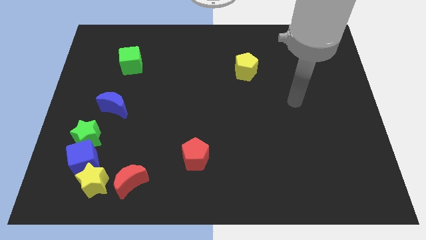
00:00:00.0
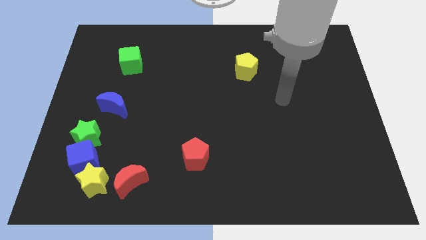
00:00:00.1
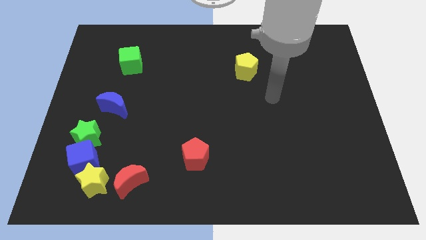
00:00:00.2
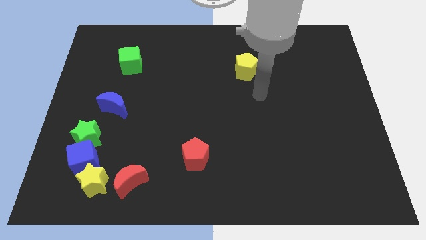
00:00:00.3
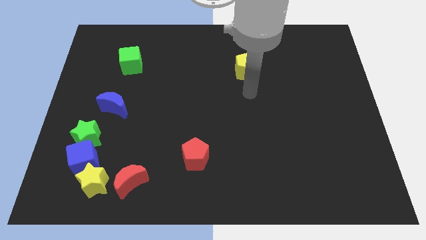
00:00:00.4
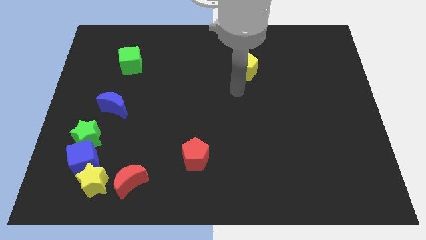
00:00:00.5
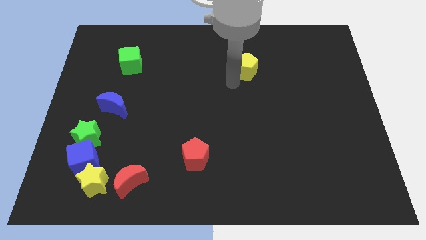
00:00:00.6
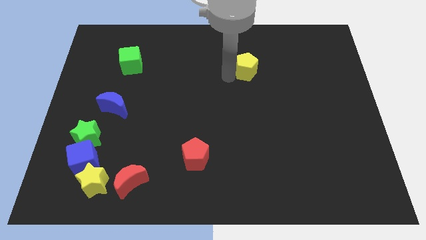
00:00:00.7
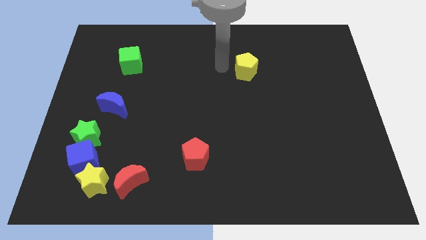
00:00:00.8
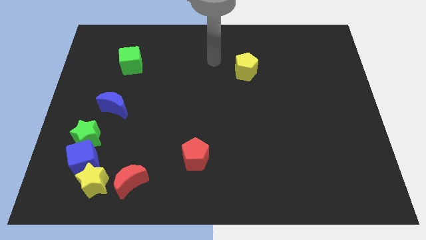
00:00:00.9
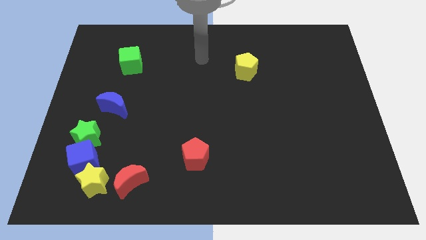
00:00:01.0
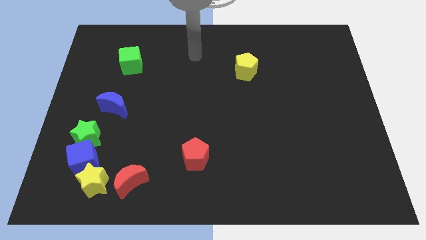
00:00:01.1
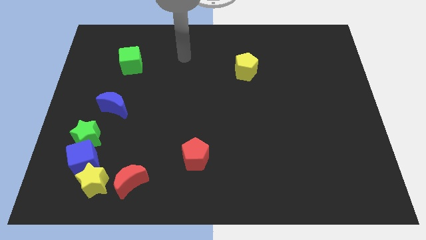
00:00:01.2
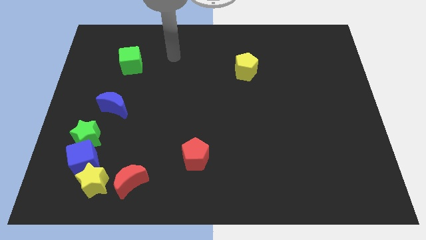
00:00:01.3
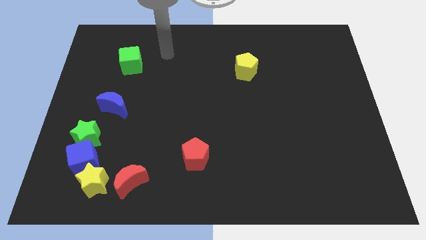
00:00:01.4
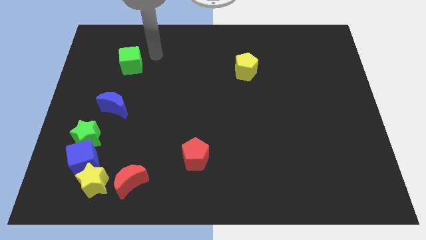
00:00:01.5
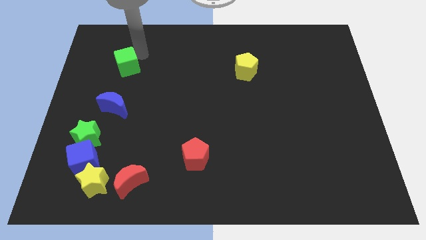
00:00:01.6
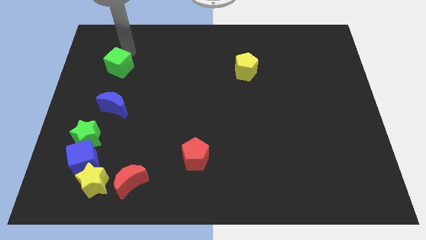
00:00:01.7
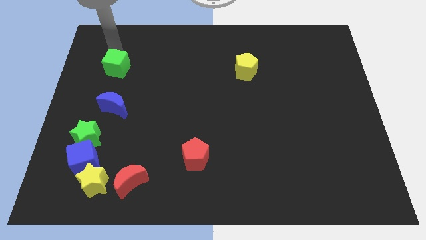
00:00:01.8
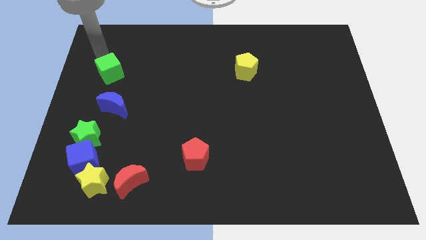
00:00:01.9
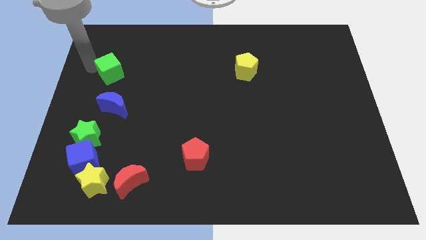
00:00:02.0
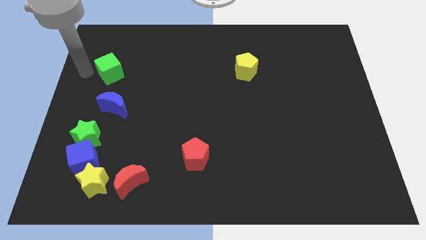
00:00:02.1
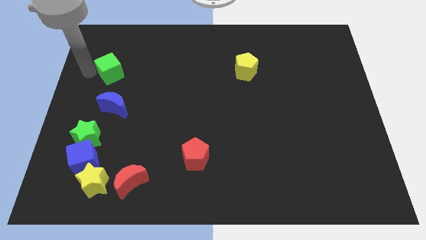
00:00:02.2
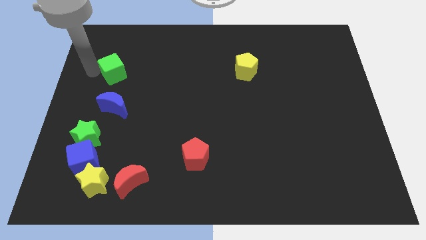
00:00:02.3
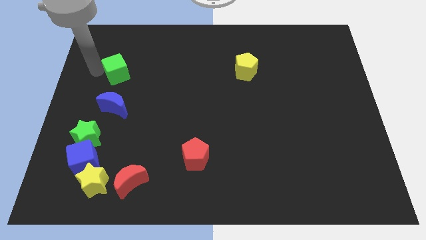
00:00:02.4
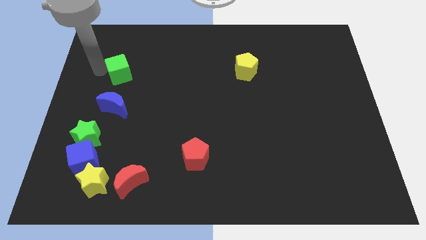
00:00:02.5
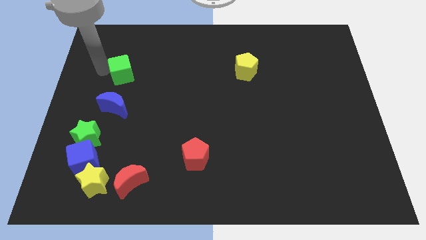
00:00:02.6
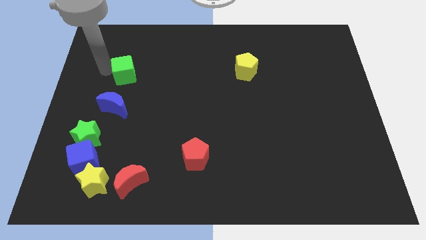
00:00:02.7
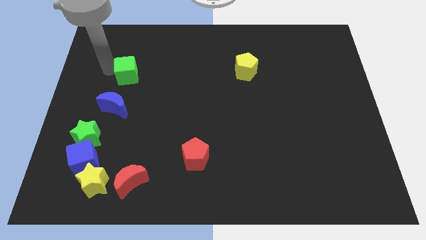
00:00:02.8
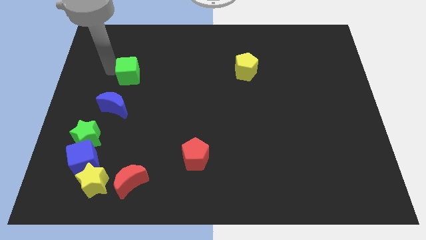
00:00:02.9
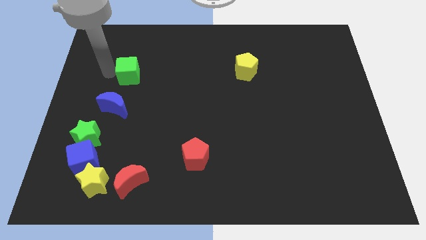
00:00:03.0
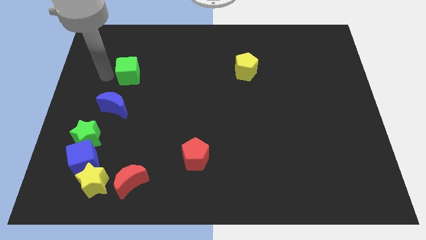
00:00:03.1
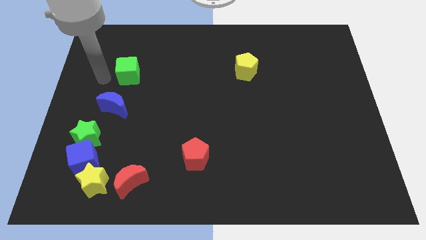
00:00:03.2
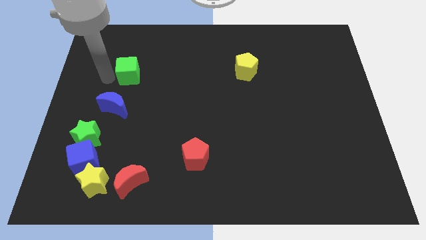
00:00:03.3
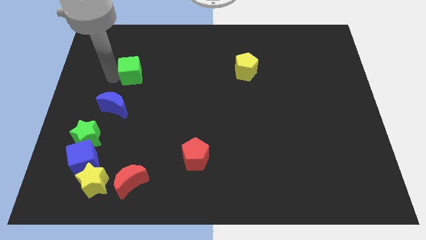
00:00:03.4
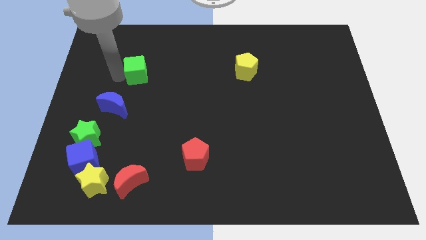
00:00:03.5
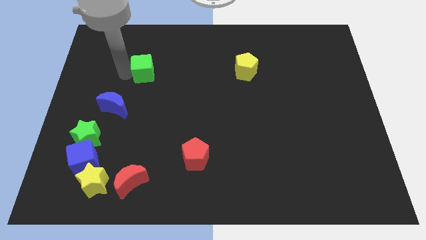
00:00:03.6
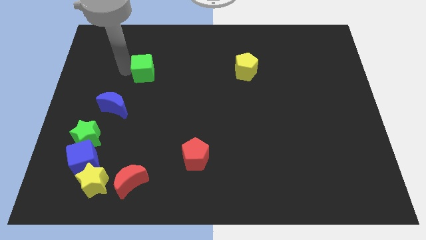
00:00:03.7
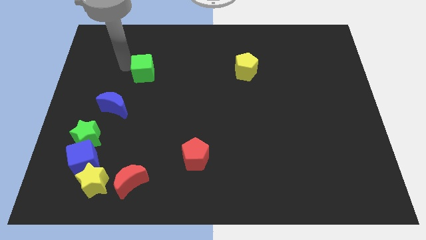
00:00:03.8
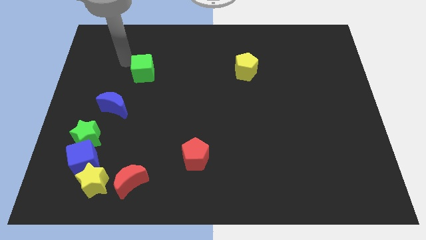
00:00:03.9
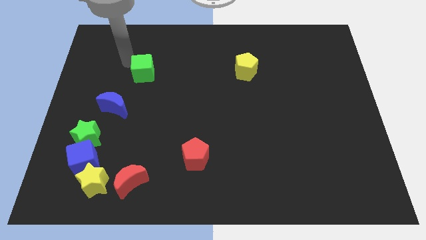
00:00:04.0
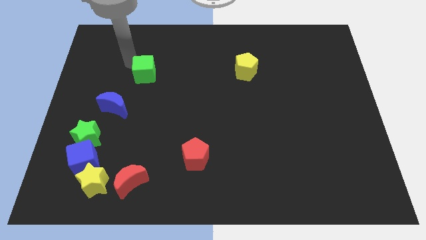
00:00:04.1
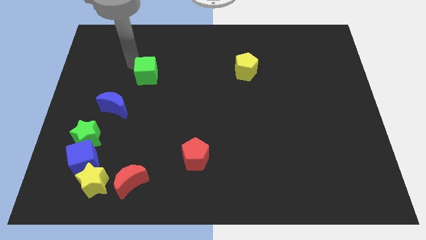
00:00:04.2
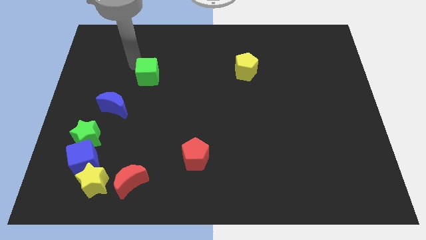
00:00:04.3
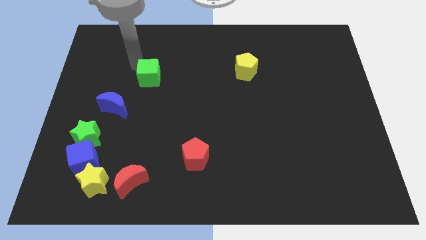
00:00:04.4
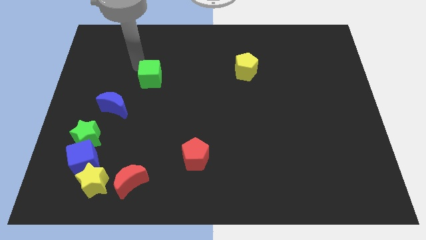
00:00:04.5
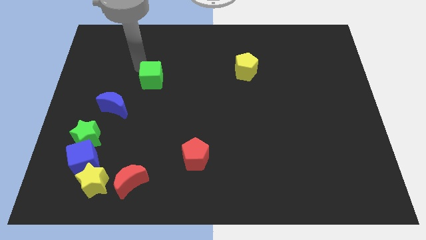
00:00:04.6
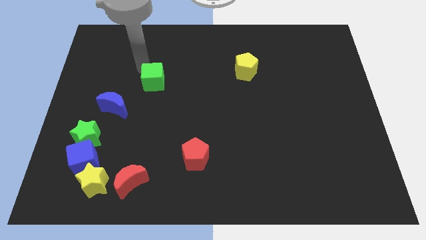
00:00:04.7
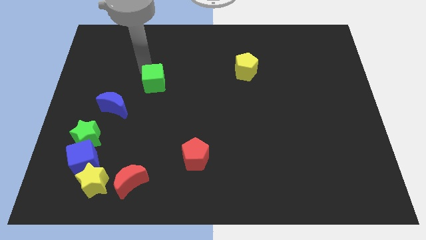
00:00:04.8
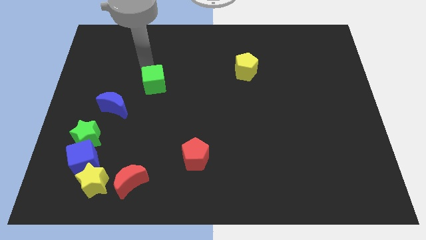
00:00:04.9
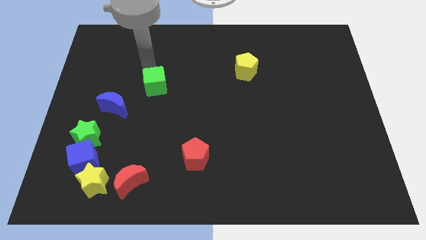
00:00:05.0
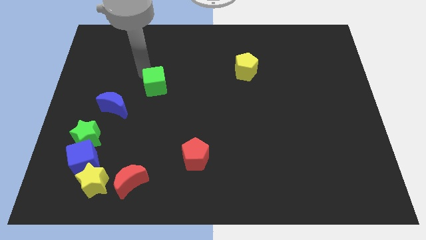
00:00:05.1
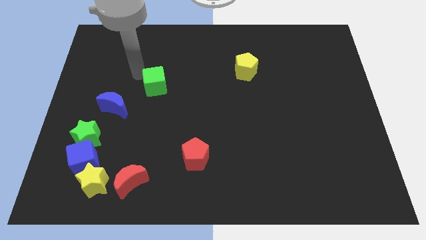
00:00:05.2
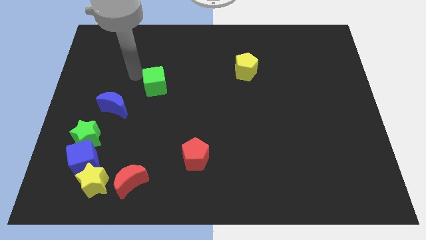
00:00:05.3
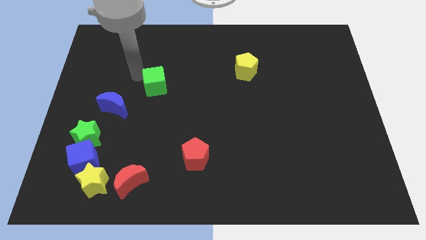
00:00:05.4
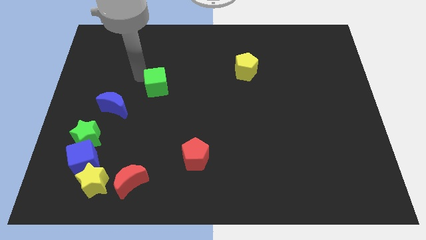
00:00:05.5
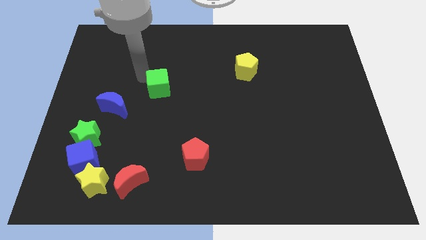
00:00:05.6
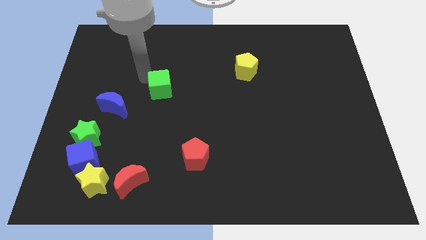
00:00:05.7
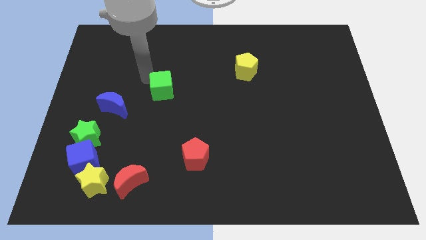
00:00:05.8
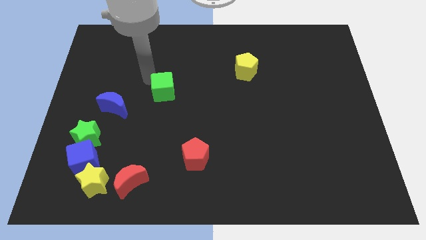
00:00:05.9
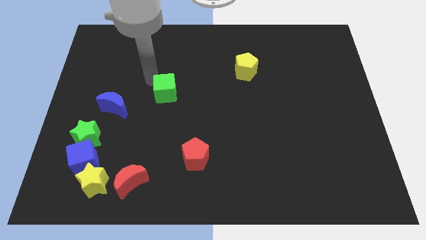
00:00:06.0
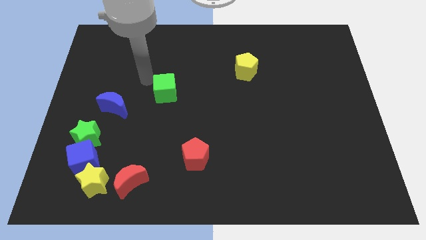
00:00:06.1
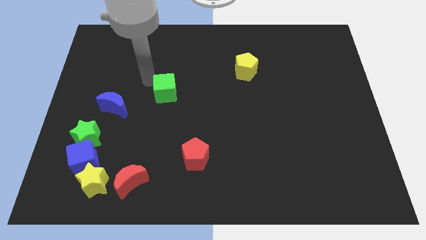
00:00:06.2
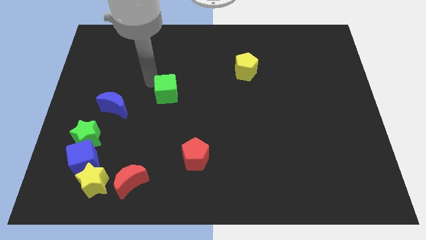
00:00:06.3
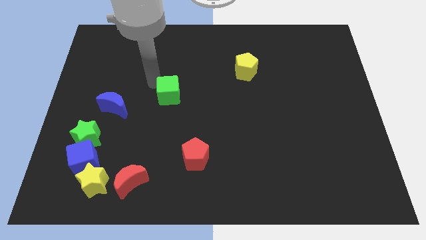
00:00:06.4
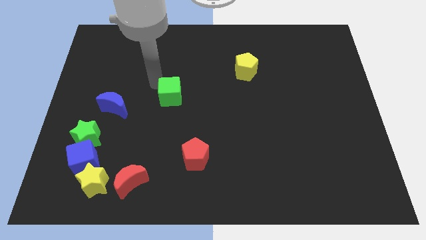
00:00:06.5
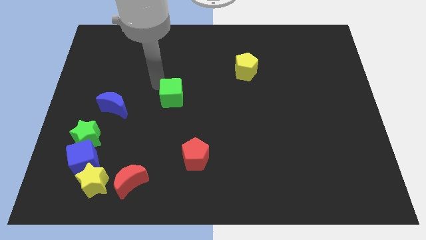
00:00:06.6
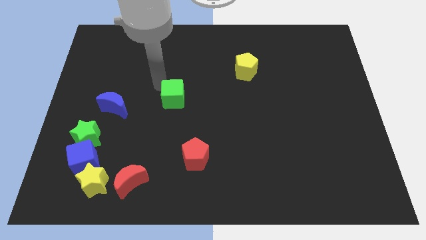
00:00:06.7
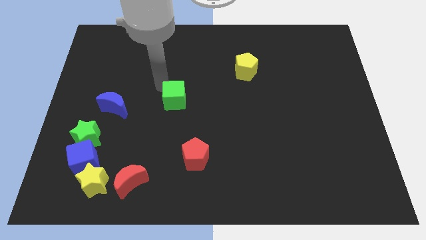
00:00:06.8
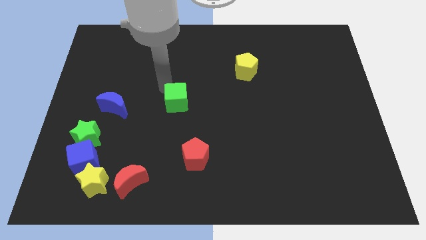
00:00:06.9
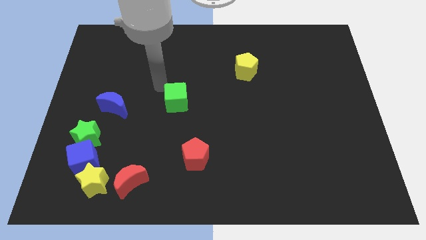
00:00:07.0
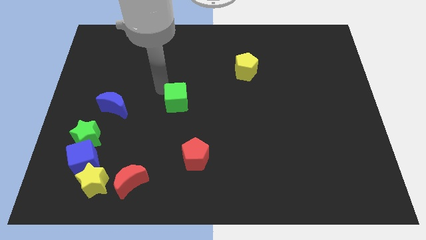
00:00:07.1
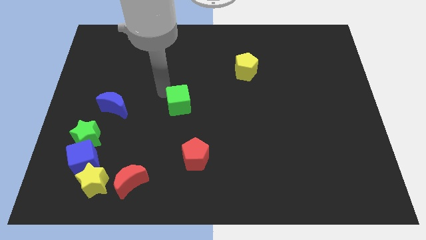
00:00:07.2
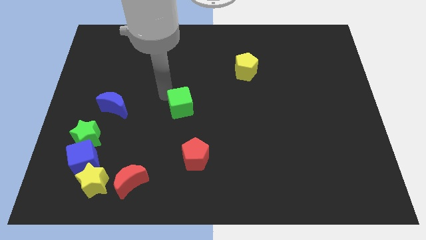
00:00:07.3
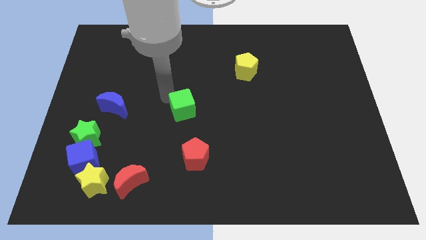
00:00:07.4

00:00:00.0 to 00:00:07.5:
move the green cube downwards and to the right

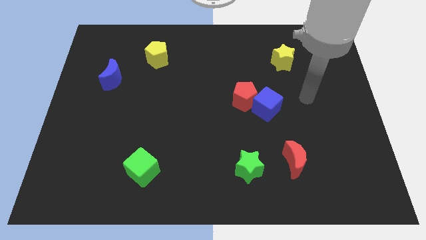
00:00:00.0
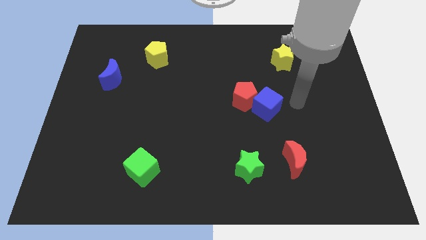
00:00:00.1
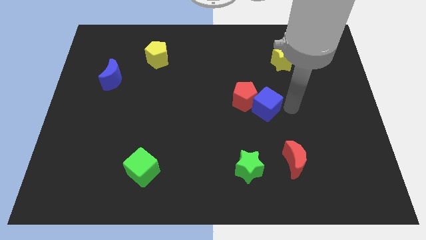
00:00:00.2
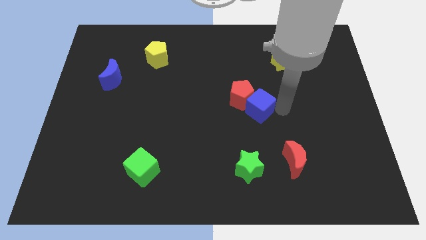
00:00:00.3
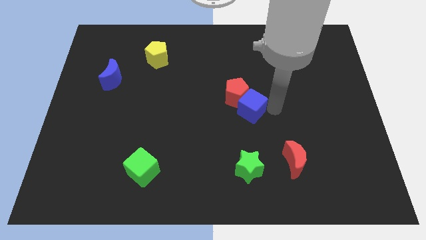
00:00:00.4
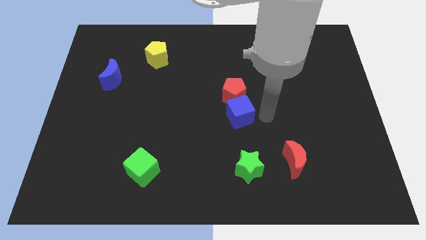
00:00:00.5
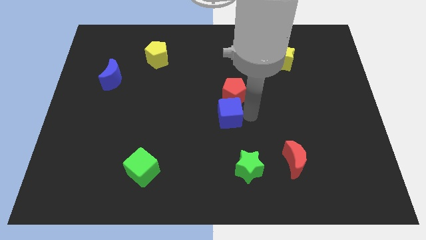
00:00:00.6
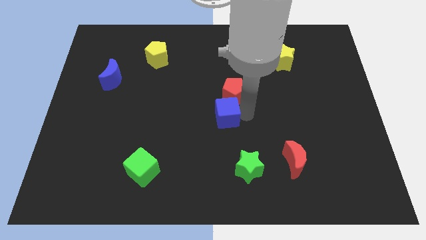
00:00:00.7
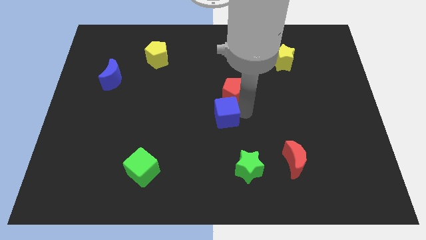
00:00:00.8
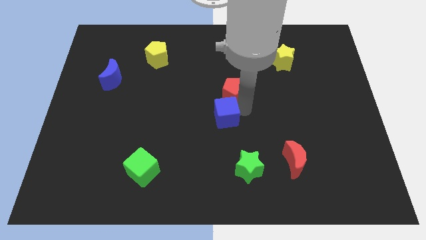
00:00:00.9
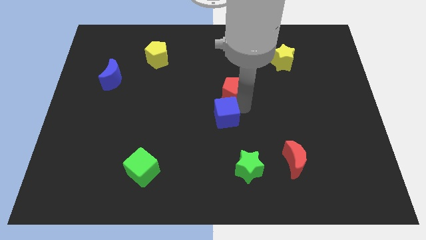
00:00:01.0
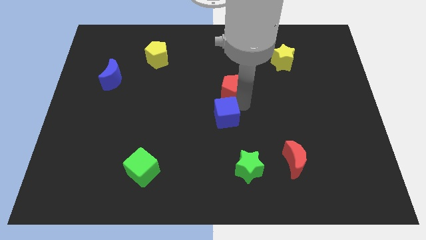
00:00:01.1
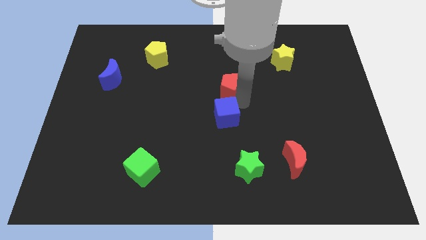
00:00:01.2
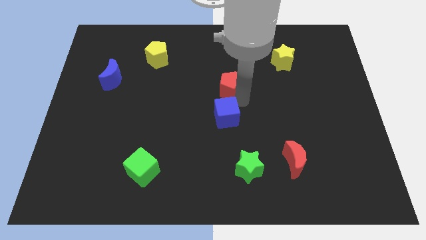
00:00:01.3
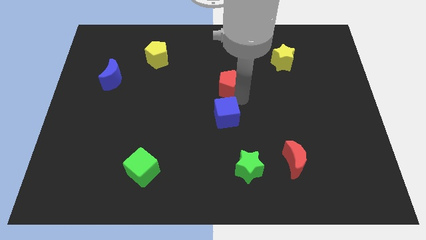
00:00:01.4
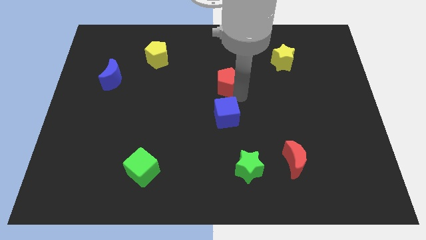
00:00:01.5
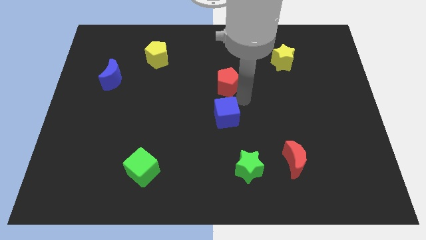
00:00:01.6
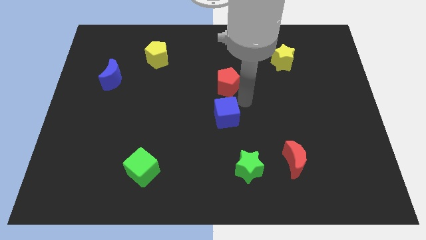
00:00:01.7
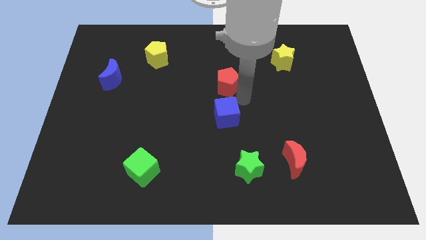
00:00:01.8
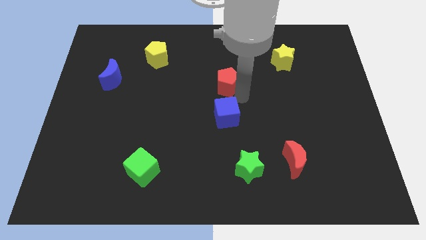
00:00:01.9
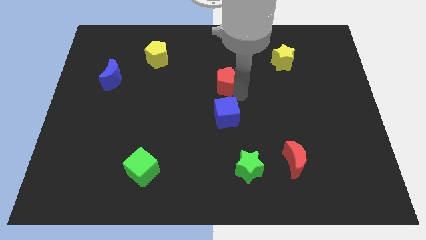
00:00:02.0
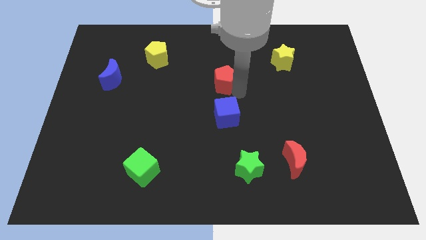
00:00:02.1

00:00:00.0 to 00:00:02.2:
slightly move the red pentagon upwards and to the left
